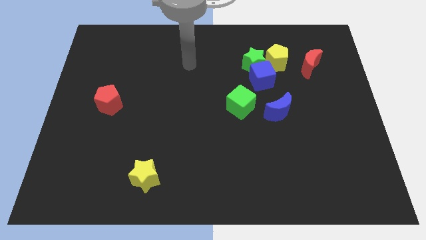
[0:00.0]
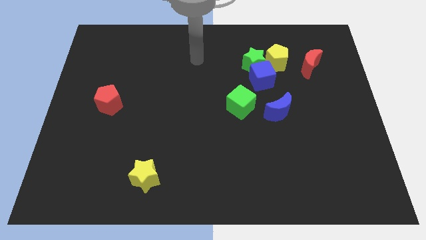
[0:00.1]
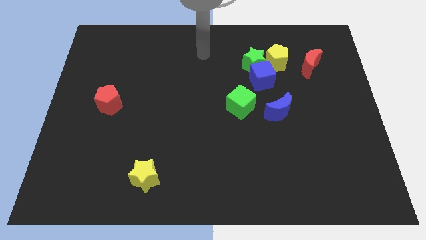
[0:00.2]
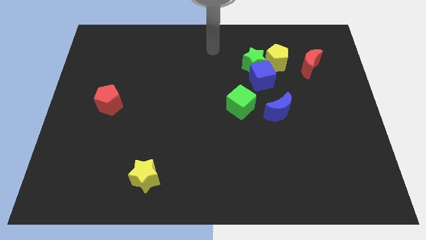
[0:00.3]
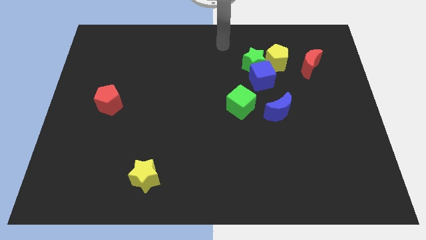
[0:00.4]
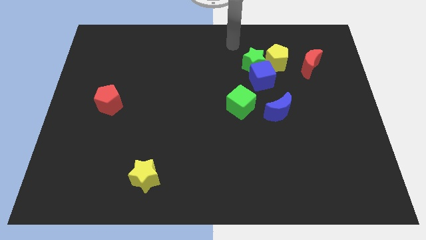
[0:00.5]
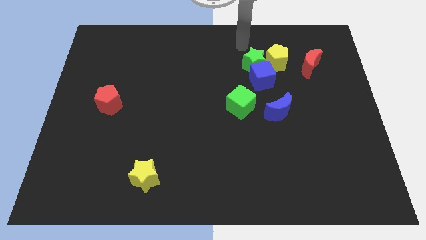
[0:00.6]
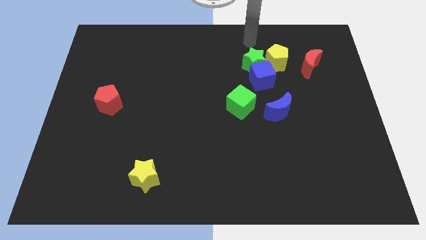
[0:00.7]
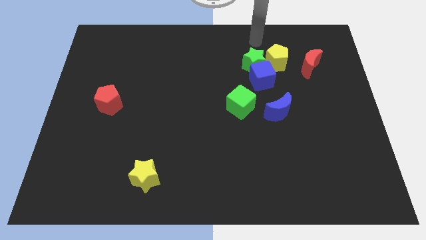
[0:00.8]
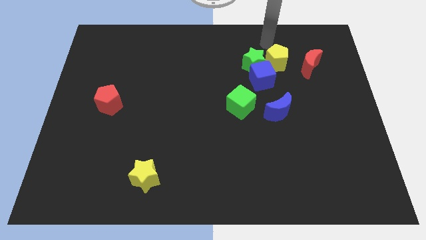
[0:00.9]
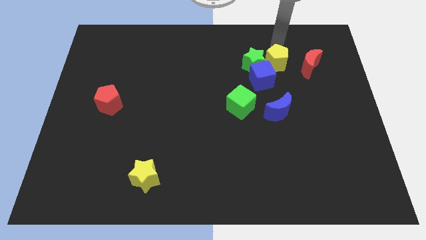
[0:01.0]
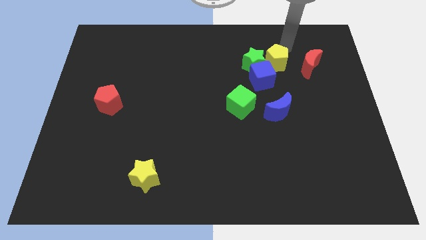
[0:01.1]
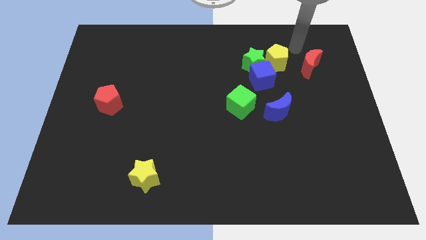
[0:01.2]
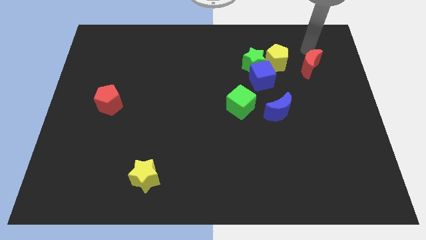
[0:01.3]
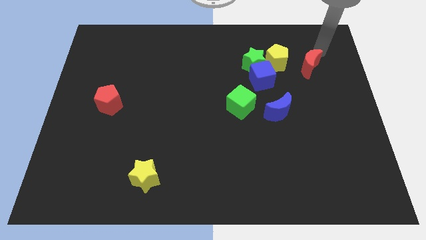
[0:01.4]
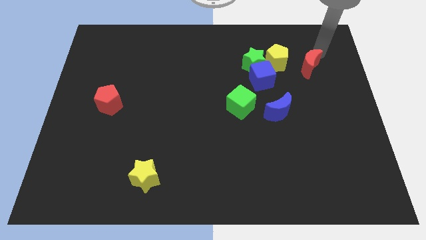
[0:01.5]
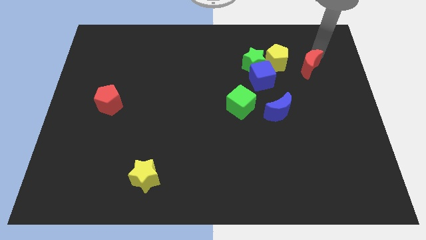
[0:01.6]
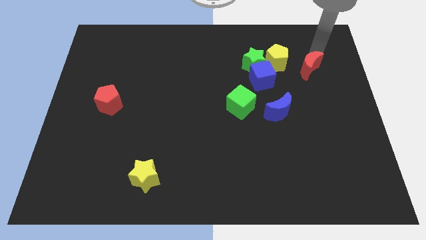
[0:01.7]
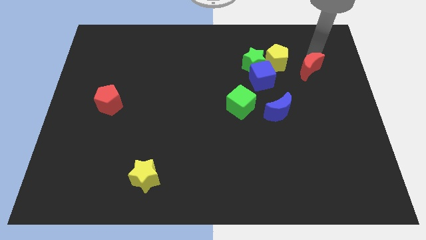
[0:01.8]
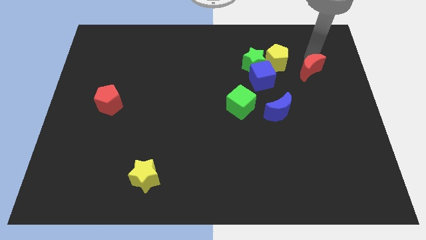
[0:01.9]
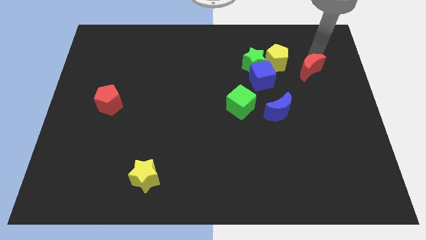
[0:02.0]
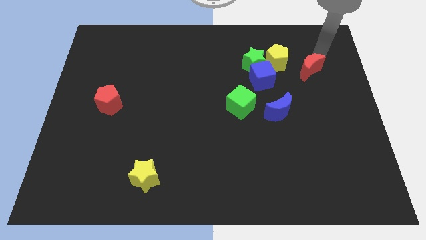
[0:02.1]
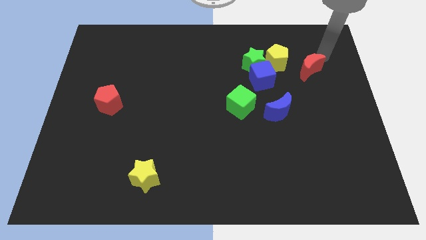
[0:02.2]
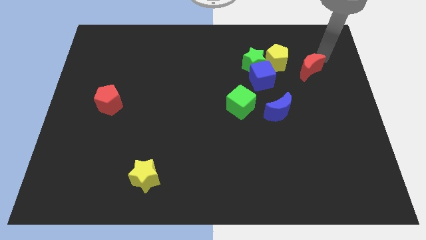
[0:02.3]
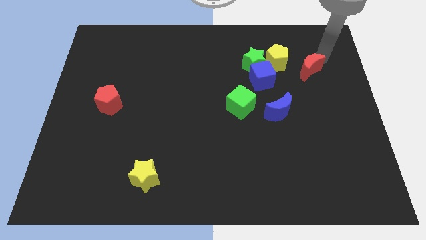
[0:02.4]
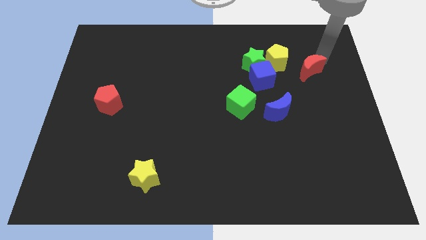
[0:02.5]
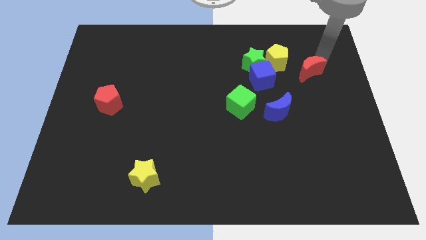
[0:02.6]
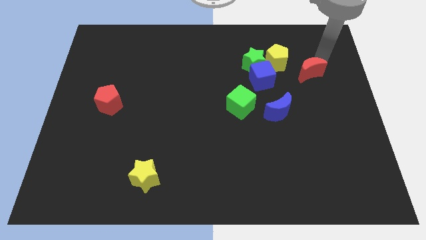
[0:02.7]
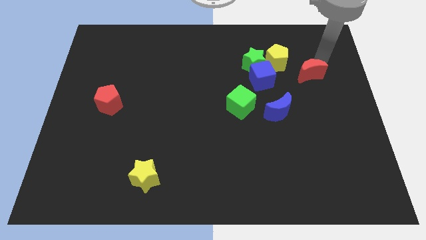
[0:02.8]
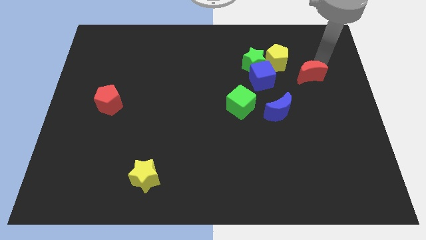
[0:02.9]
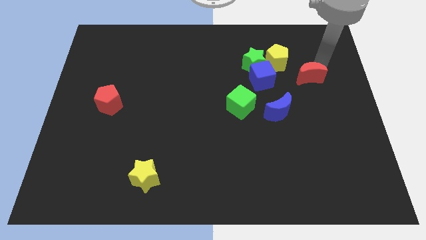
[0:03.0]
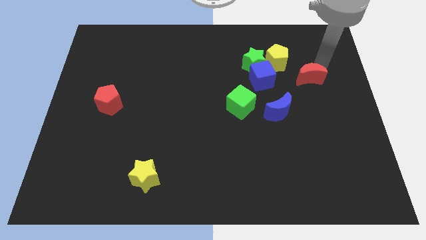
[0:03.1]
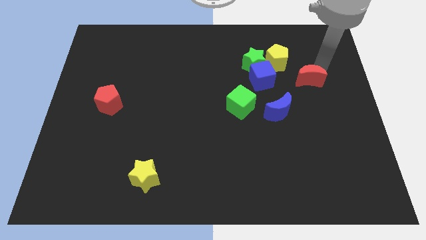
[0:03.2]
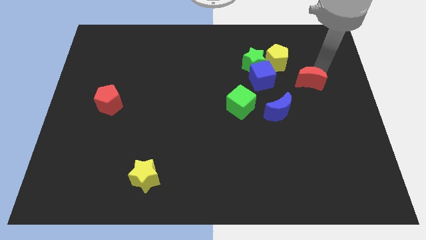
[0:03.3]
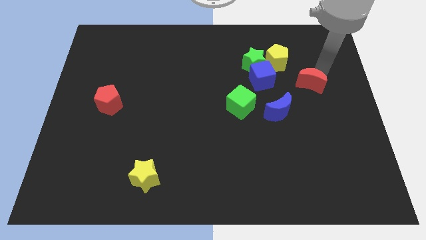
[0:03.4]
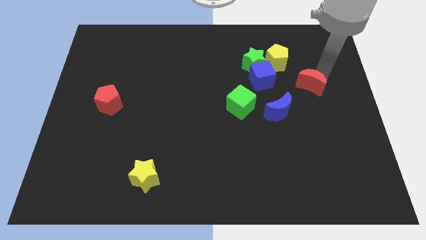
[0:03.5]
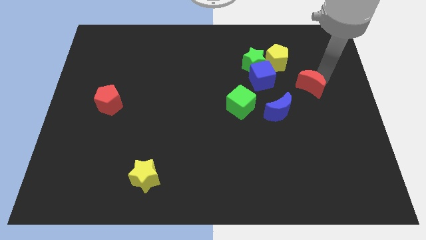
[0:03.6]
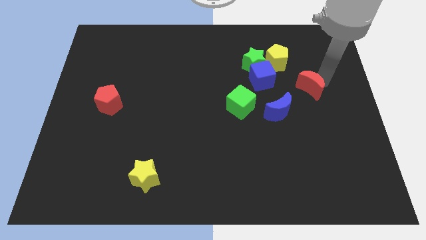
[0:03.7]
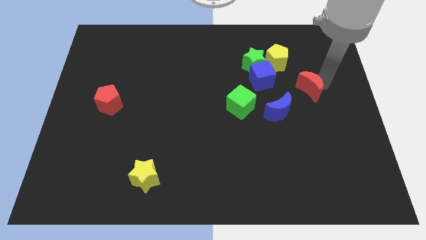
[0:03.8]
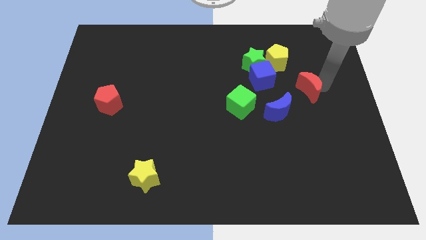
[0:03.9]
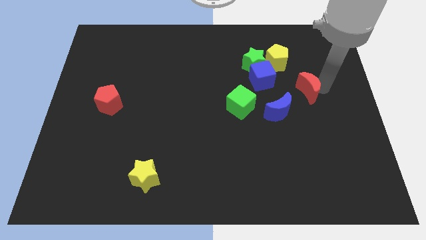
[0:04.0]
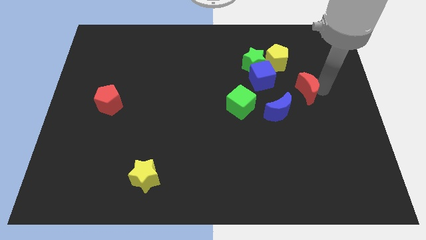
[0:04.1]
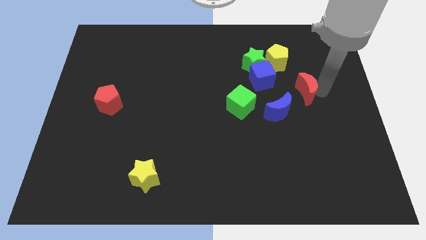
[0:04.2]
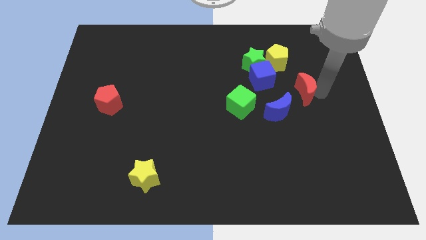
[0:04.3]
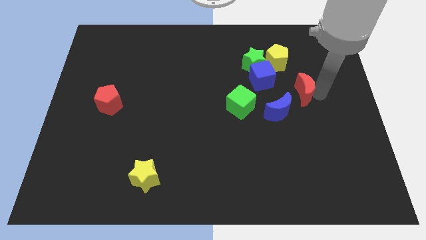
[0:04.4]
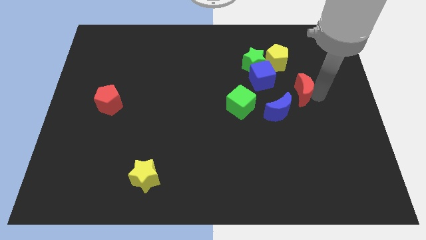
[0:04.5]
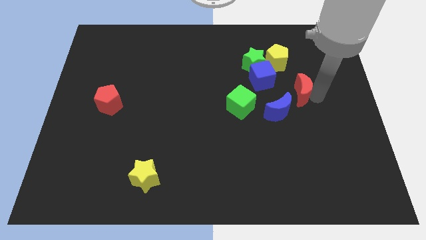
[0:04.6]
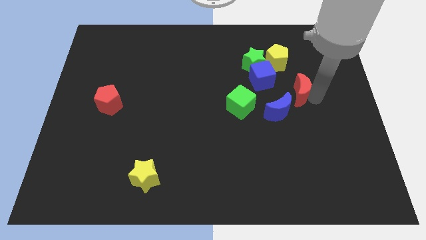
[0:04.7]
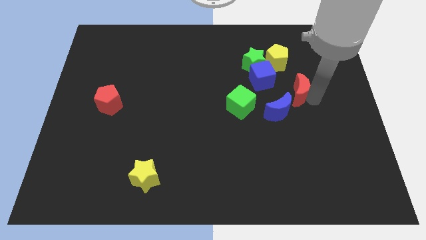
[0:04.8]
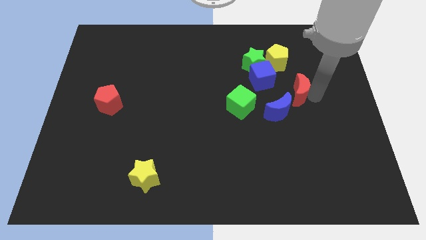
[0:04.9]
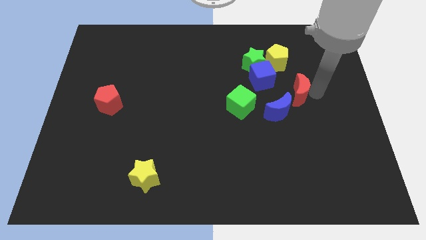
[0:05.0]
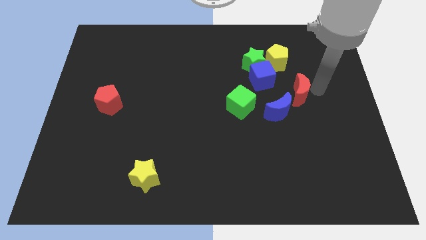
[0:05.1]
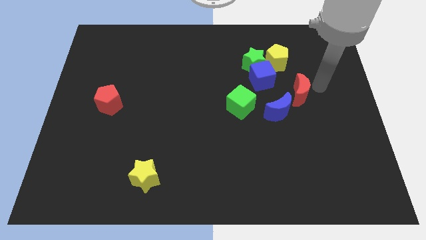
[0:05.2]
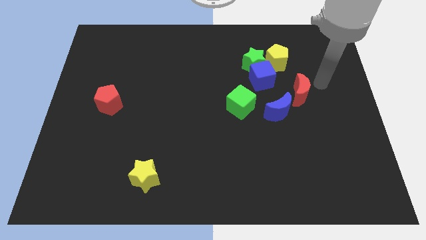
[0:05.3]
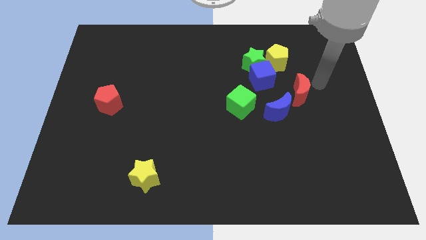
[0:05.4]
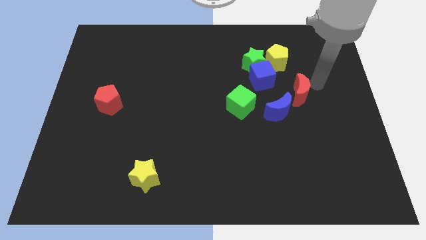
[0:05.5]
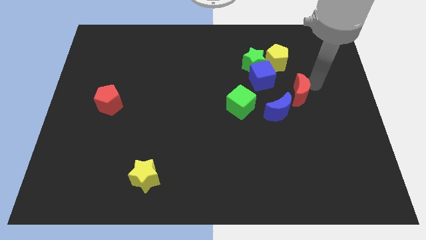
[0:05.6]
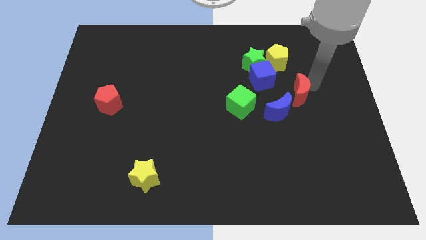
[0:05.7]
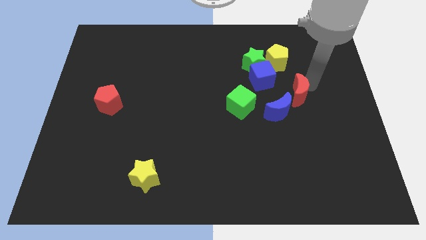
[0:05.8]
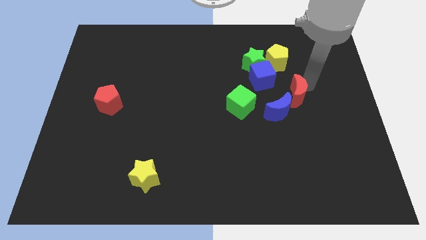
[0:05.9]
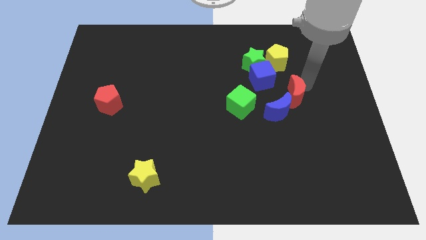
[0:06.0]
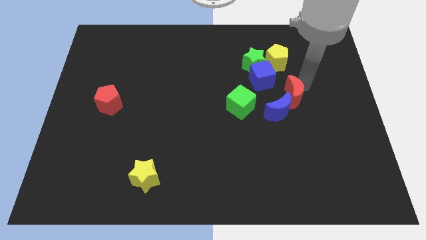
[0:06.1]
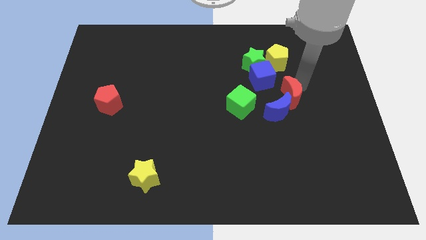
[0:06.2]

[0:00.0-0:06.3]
put the red moon close to the blue moon

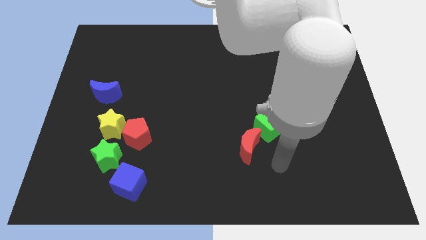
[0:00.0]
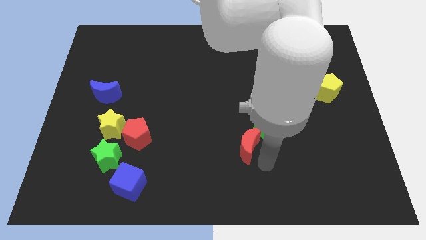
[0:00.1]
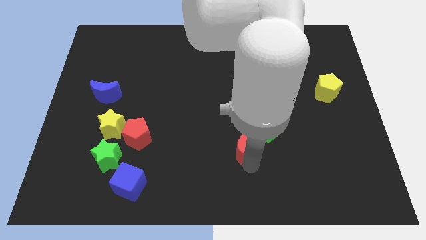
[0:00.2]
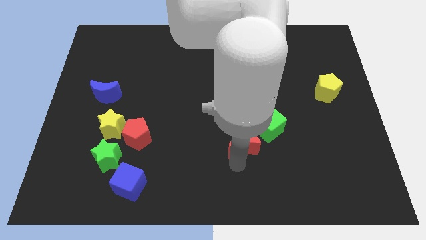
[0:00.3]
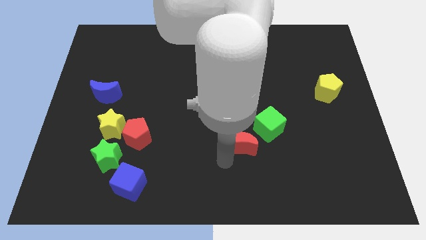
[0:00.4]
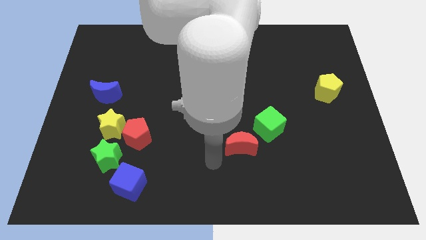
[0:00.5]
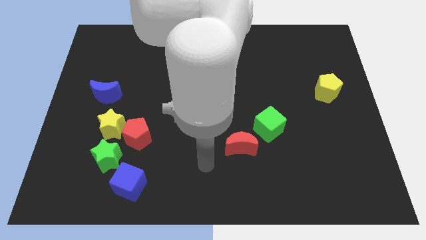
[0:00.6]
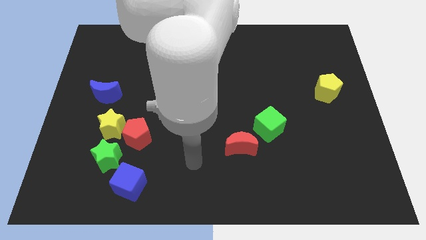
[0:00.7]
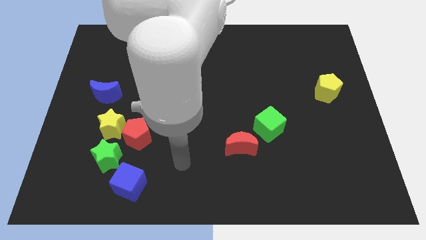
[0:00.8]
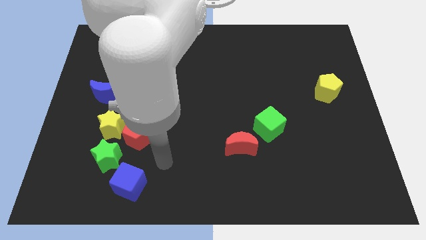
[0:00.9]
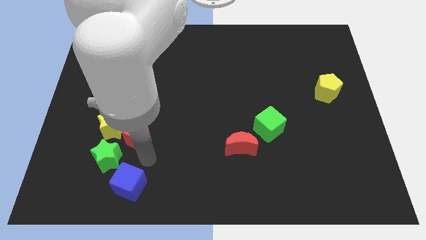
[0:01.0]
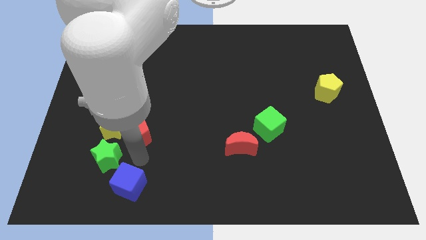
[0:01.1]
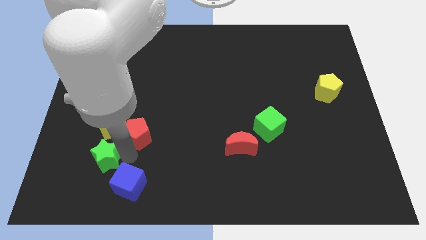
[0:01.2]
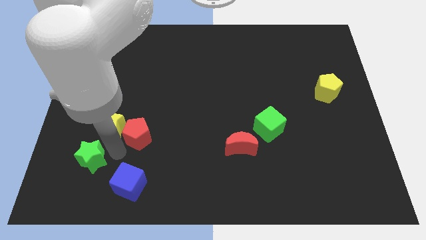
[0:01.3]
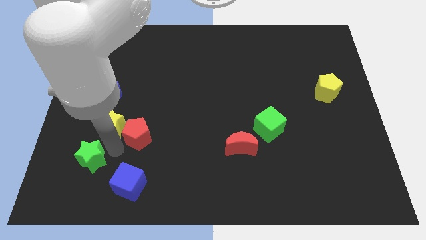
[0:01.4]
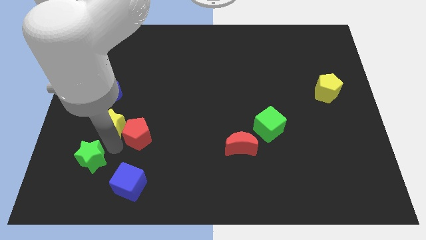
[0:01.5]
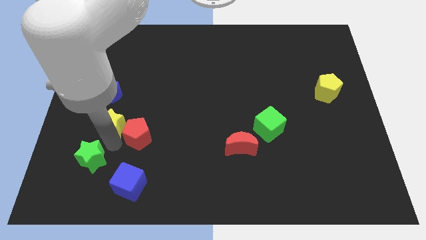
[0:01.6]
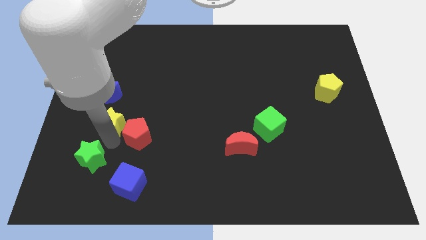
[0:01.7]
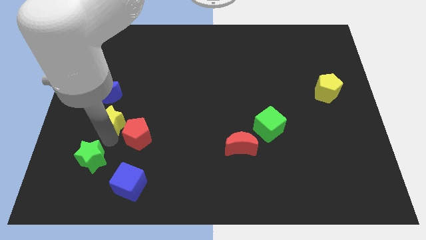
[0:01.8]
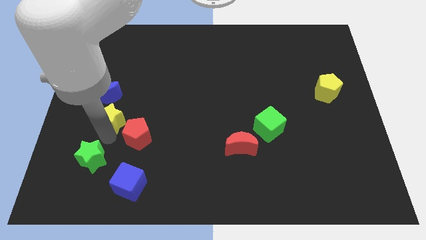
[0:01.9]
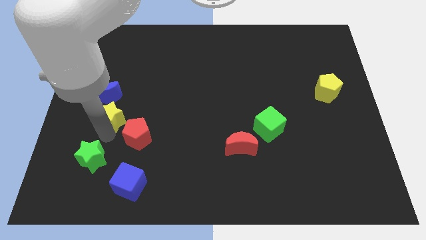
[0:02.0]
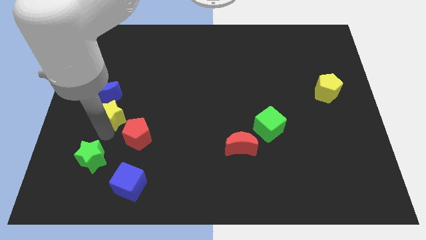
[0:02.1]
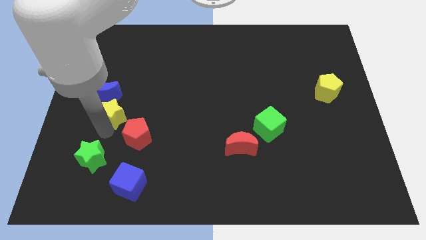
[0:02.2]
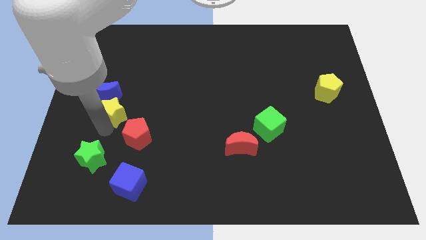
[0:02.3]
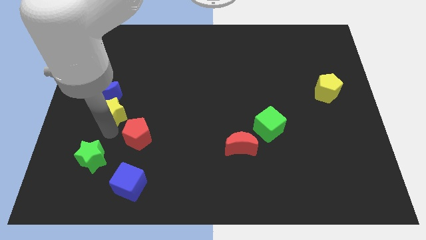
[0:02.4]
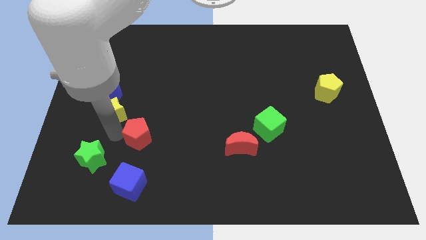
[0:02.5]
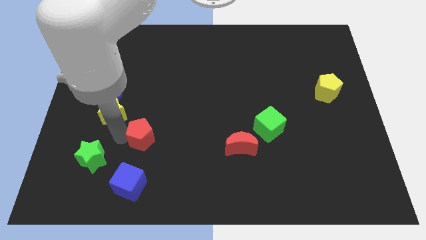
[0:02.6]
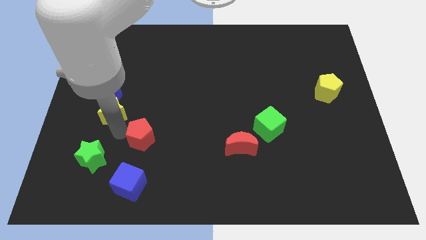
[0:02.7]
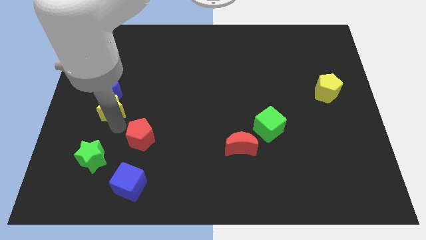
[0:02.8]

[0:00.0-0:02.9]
push the yellow star close to the blue moon
